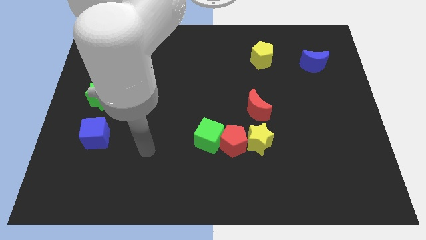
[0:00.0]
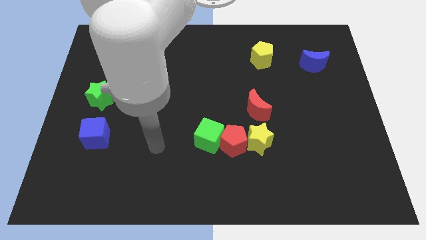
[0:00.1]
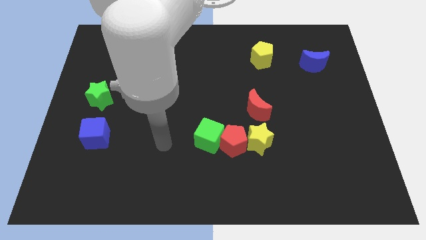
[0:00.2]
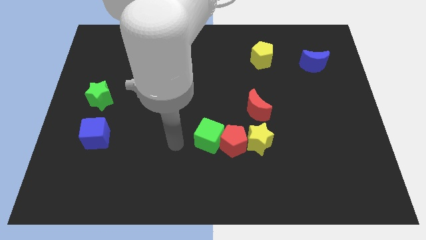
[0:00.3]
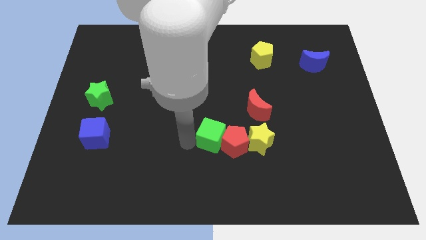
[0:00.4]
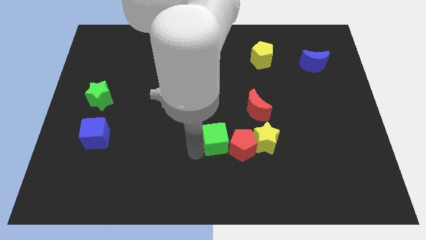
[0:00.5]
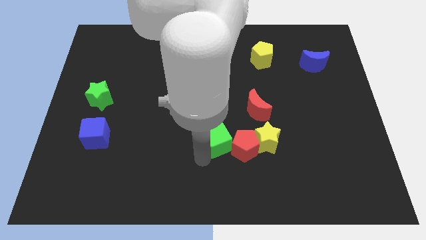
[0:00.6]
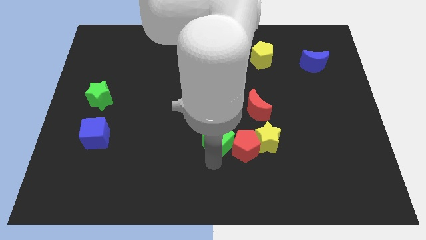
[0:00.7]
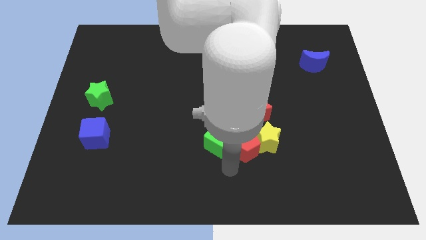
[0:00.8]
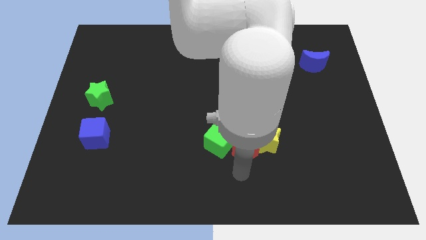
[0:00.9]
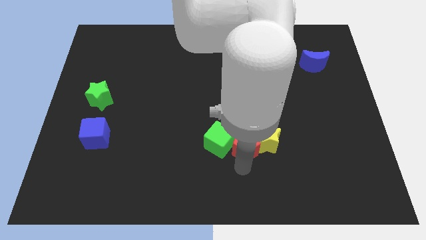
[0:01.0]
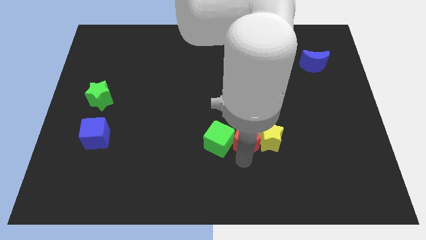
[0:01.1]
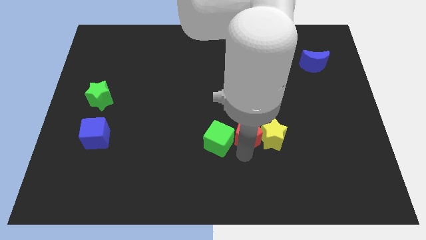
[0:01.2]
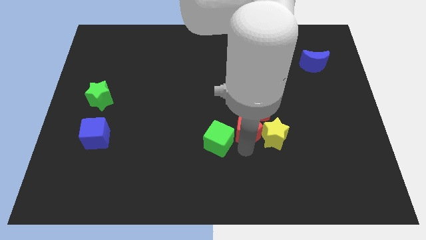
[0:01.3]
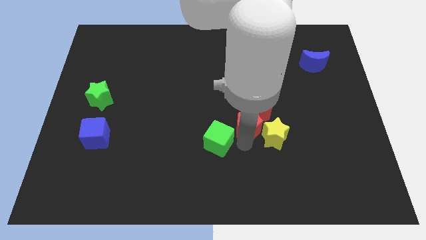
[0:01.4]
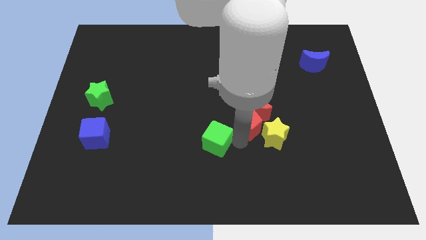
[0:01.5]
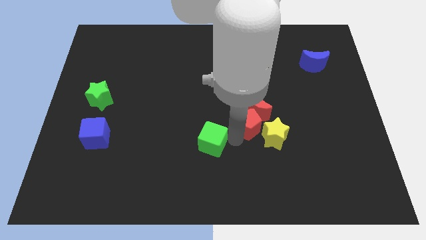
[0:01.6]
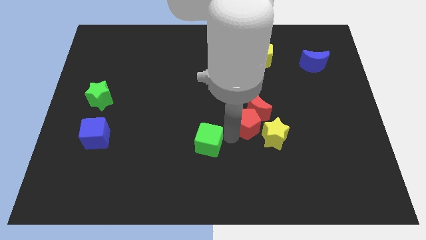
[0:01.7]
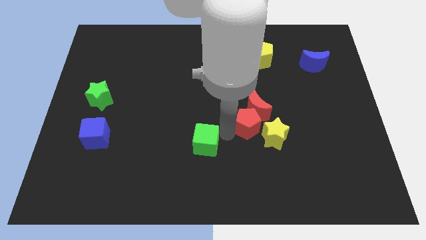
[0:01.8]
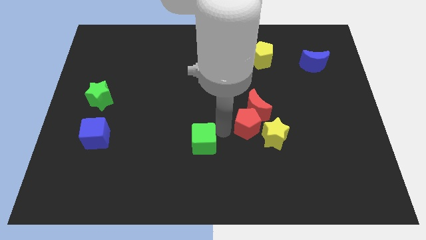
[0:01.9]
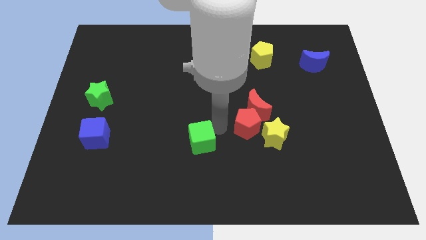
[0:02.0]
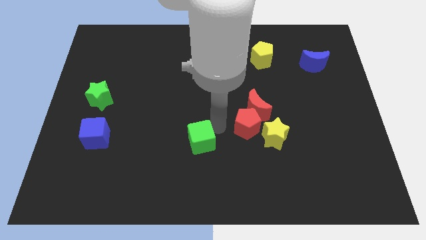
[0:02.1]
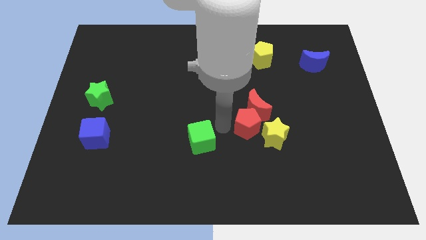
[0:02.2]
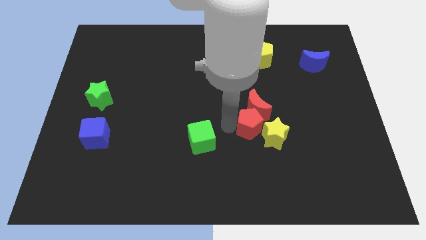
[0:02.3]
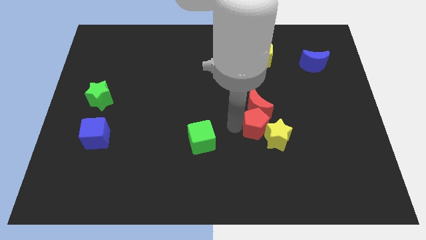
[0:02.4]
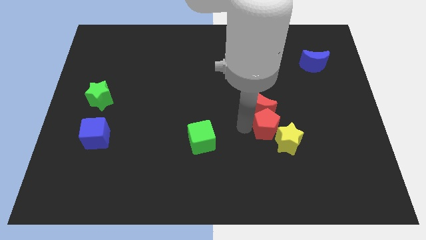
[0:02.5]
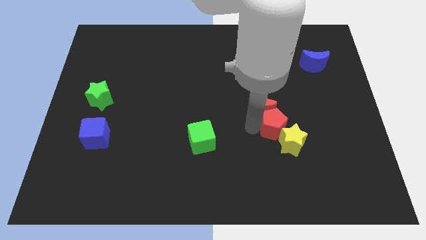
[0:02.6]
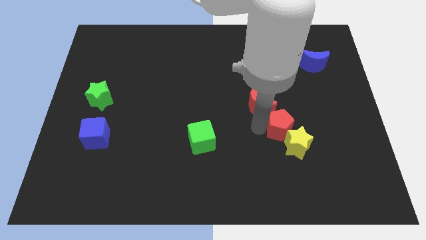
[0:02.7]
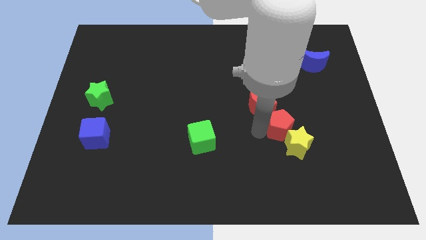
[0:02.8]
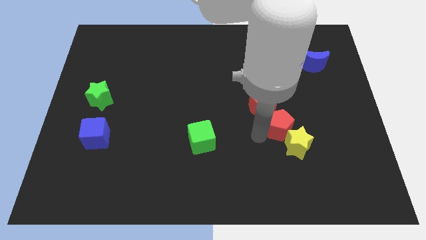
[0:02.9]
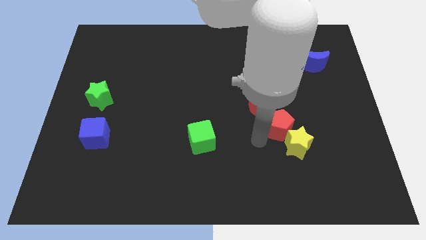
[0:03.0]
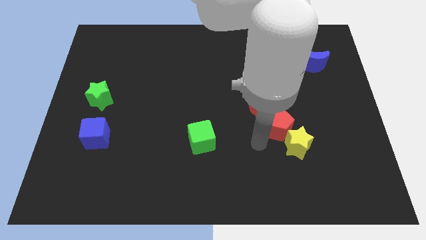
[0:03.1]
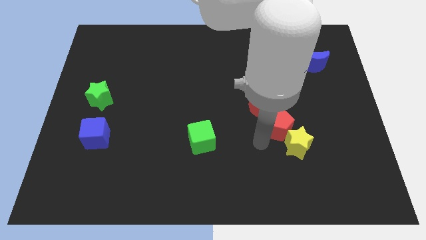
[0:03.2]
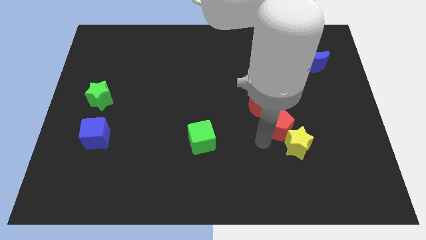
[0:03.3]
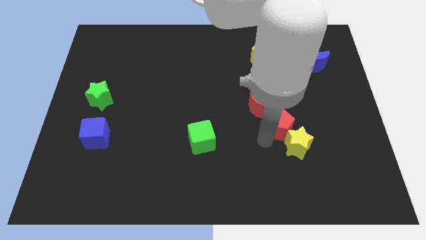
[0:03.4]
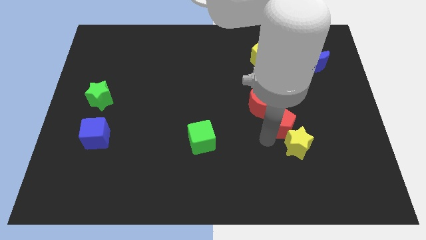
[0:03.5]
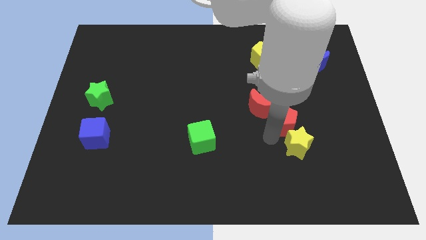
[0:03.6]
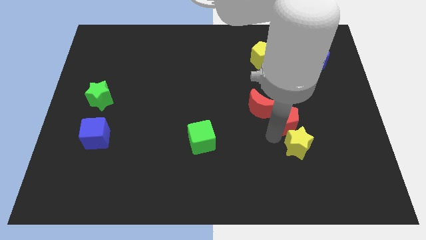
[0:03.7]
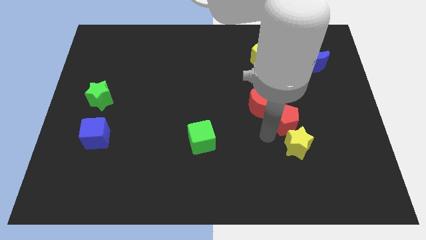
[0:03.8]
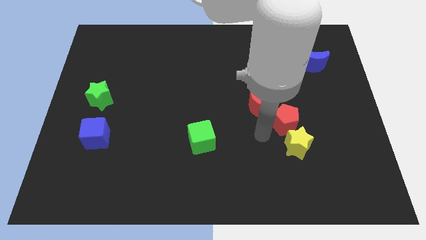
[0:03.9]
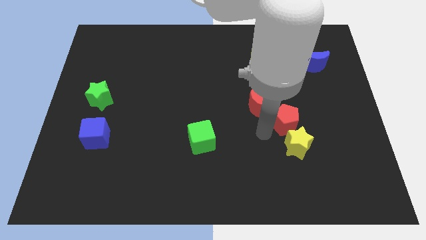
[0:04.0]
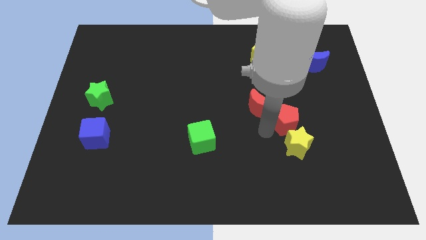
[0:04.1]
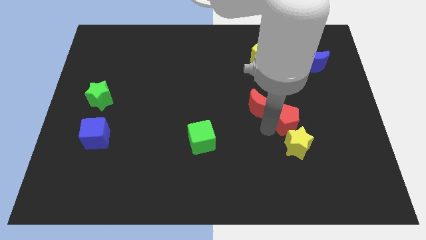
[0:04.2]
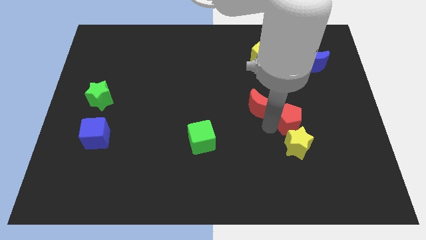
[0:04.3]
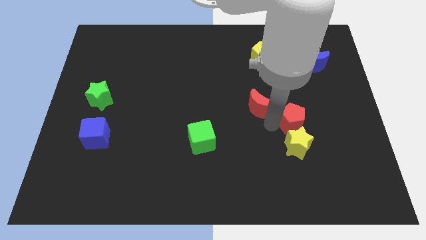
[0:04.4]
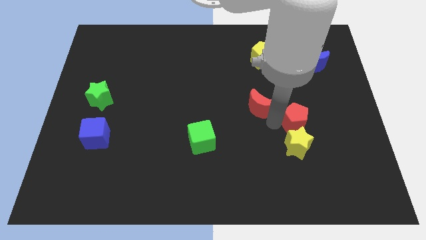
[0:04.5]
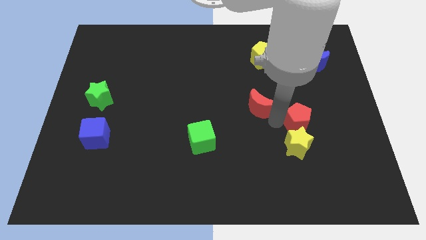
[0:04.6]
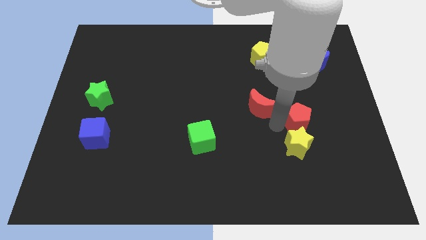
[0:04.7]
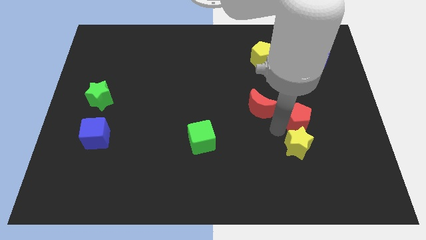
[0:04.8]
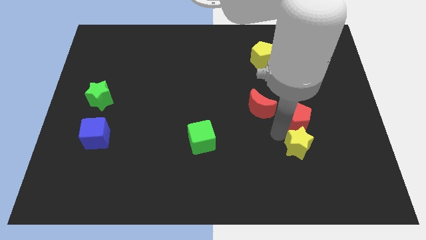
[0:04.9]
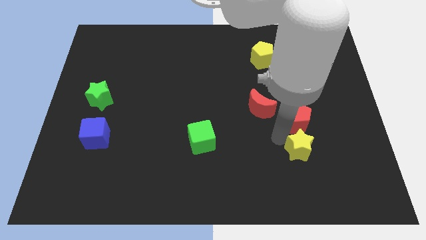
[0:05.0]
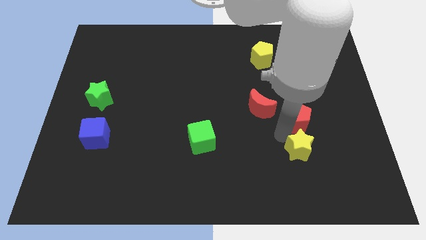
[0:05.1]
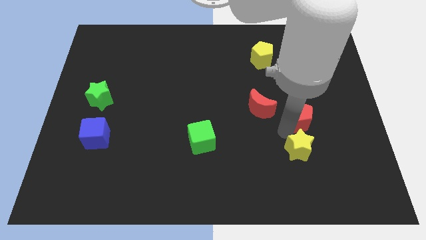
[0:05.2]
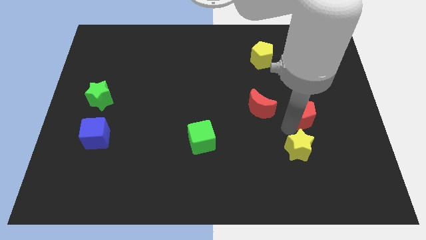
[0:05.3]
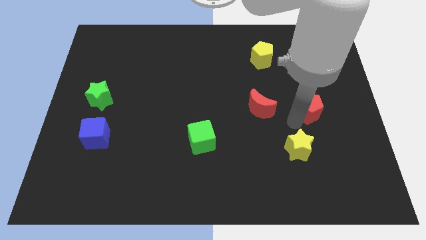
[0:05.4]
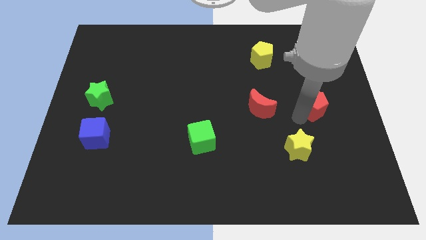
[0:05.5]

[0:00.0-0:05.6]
move the red pentagon to the bottom side of the blue moon

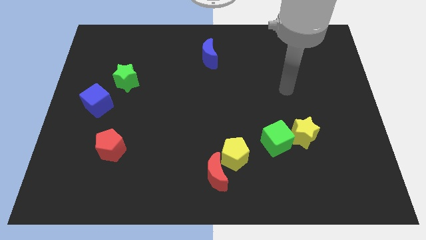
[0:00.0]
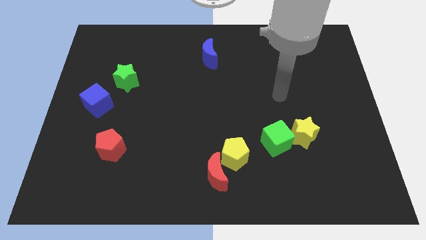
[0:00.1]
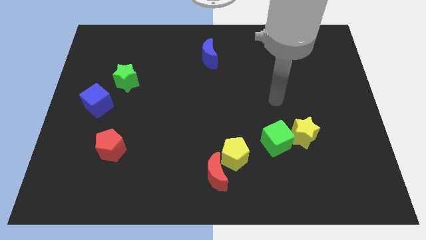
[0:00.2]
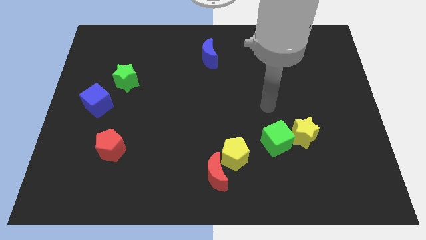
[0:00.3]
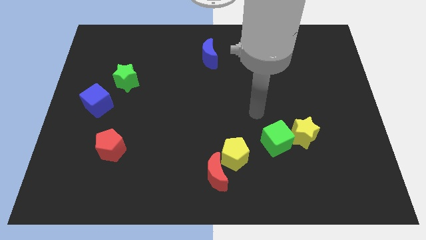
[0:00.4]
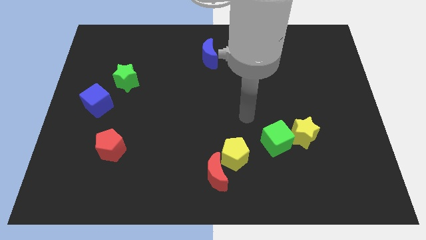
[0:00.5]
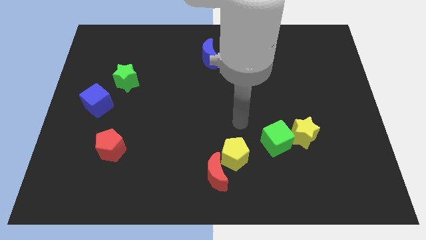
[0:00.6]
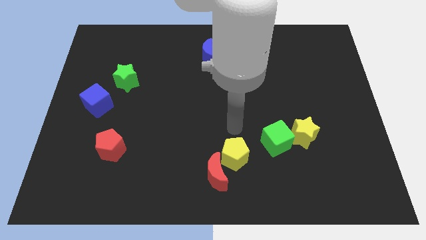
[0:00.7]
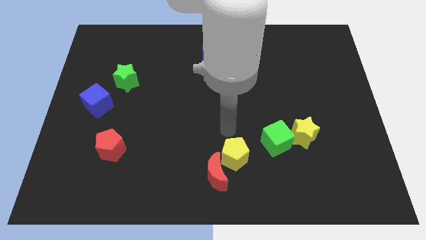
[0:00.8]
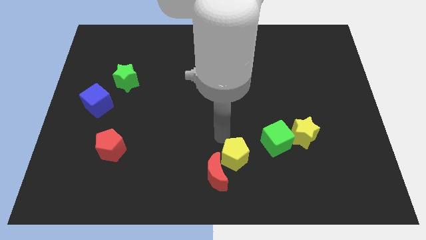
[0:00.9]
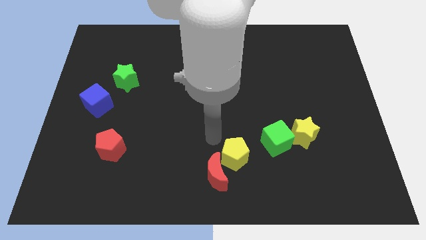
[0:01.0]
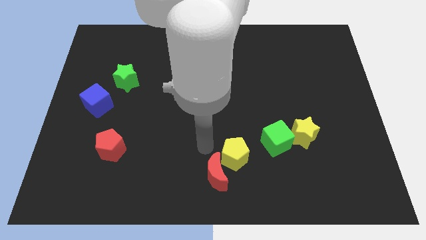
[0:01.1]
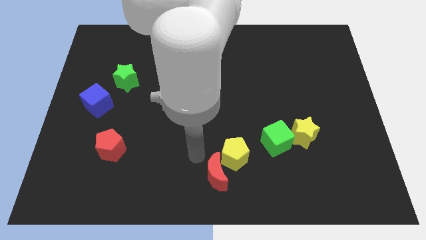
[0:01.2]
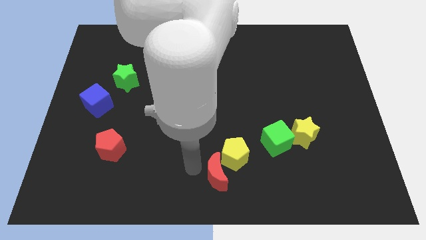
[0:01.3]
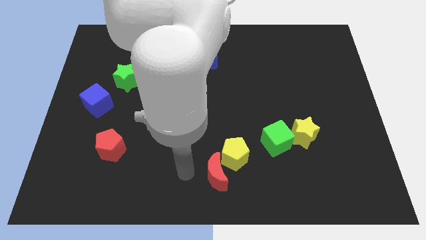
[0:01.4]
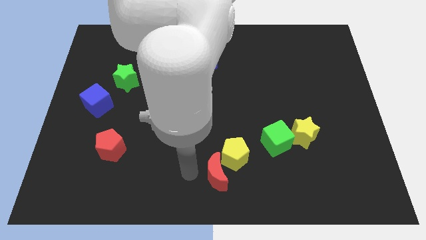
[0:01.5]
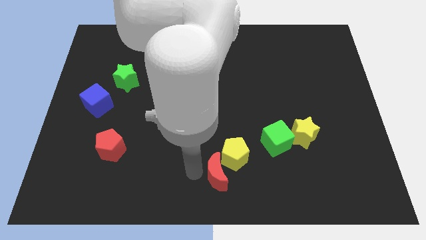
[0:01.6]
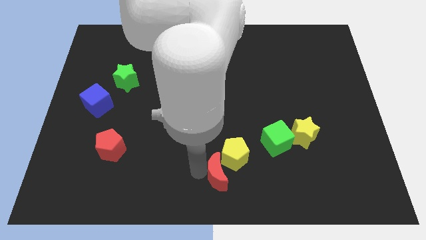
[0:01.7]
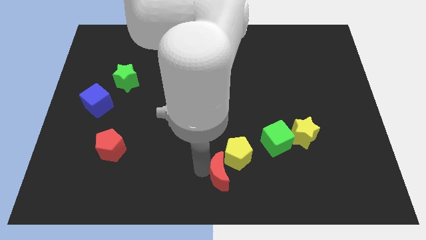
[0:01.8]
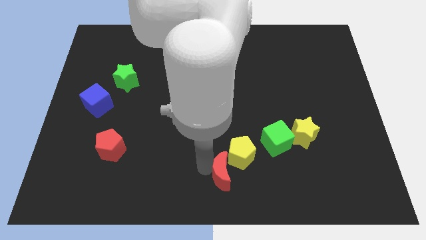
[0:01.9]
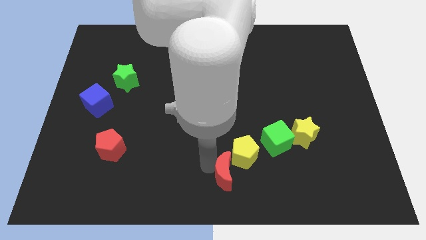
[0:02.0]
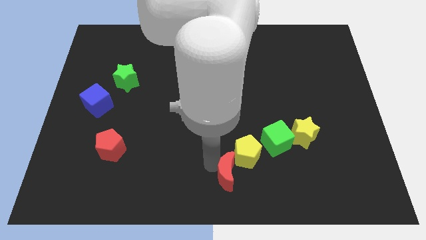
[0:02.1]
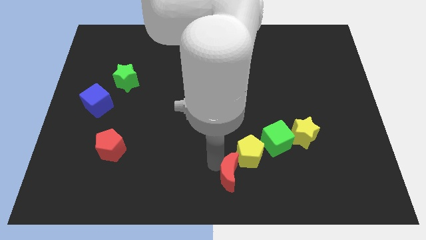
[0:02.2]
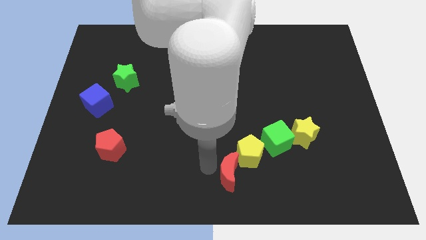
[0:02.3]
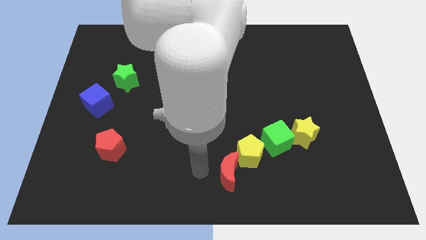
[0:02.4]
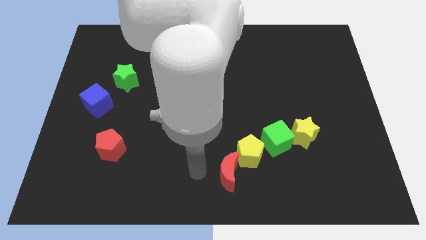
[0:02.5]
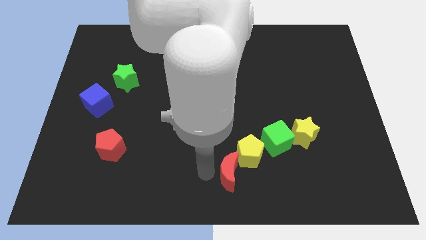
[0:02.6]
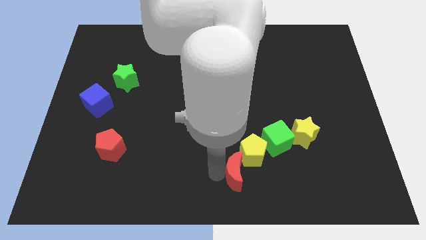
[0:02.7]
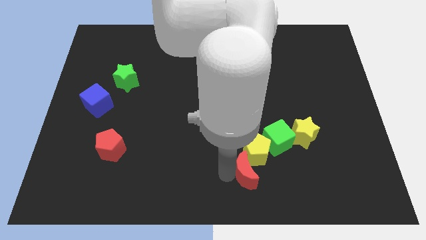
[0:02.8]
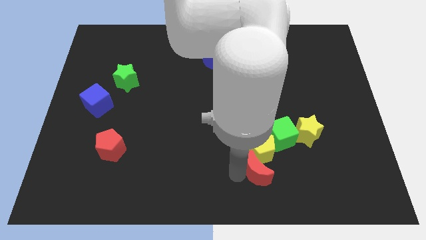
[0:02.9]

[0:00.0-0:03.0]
push the red moon to the bottom right of the yellow pentagon
